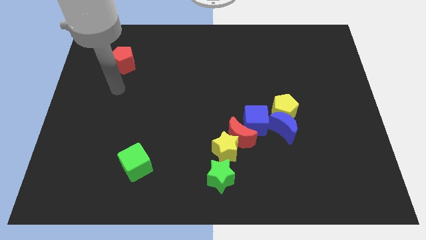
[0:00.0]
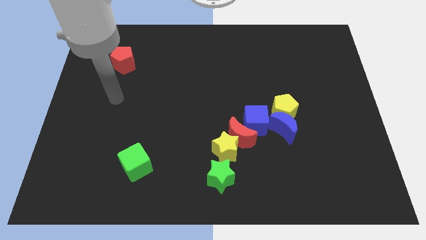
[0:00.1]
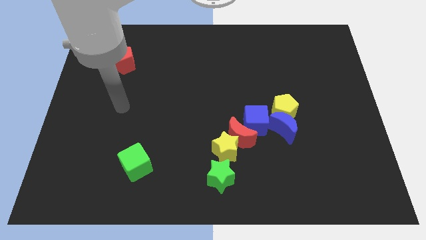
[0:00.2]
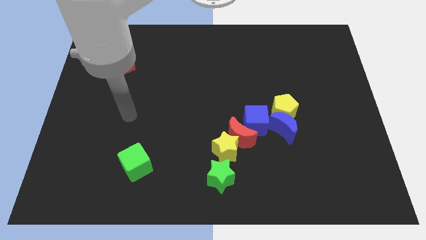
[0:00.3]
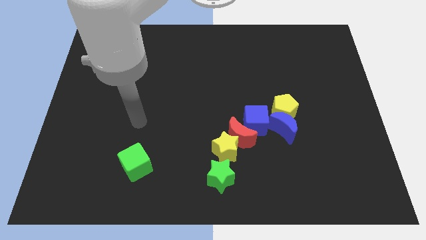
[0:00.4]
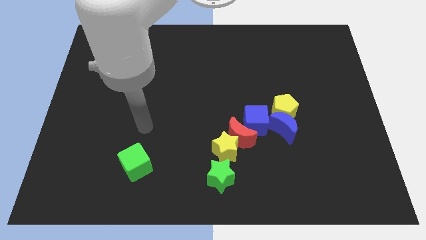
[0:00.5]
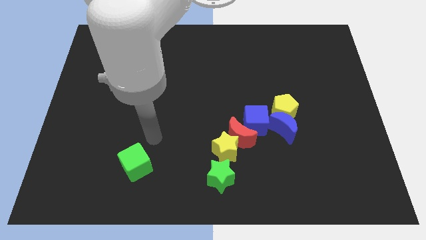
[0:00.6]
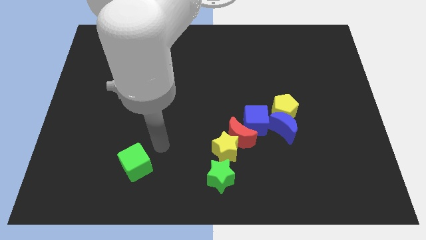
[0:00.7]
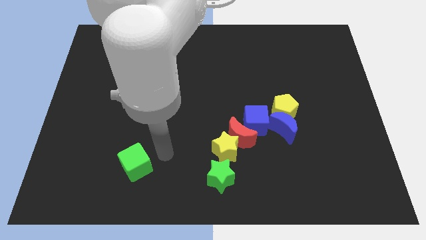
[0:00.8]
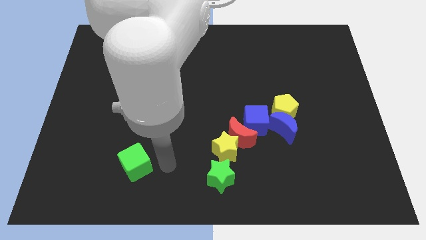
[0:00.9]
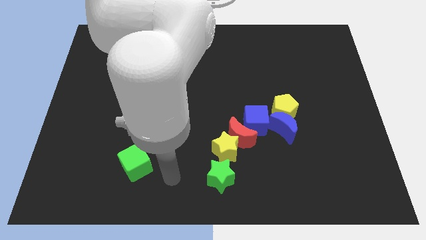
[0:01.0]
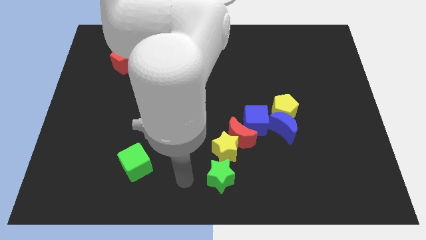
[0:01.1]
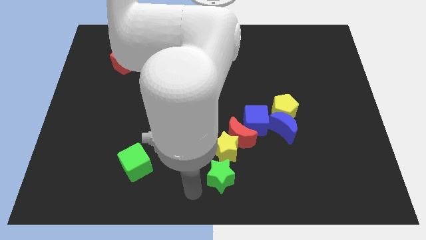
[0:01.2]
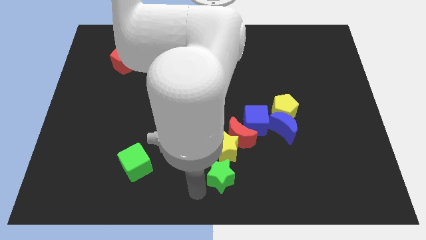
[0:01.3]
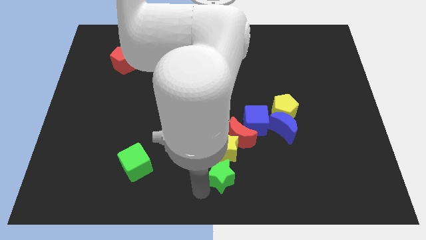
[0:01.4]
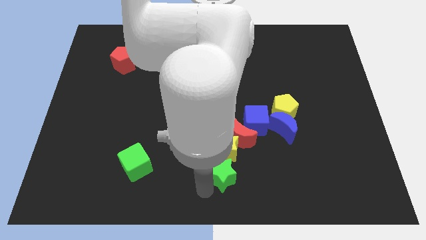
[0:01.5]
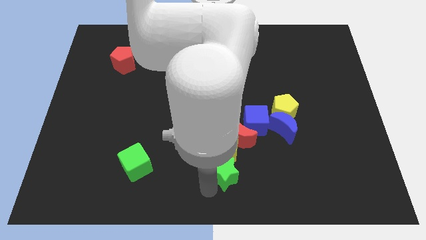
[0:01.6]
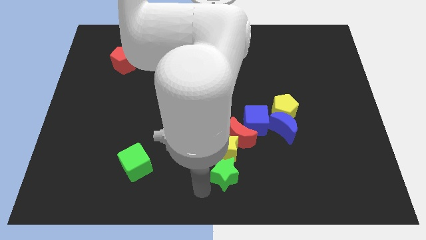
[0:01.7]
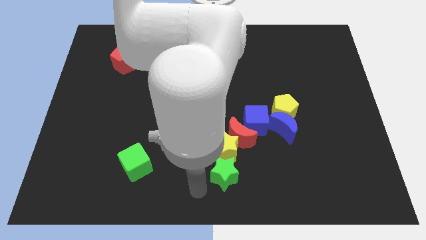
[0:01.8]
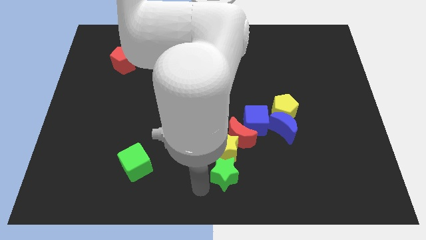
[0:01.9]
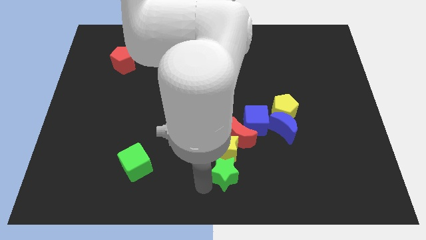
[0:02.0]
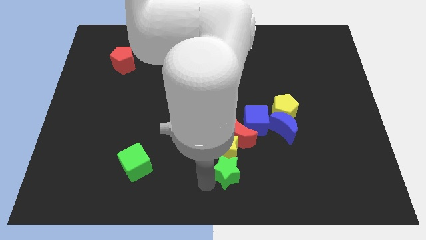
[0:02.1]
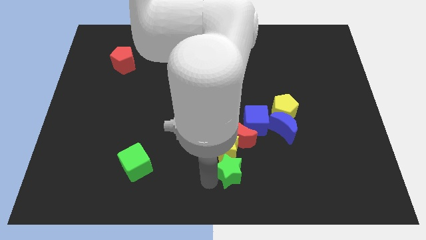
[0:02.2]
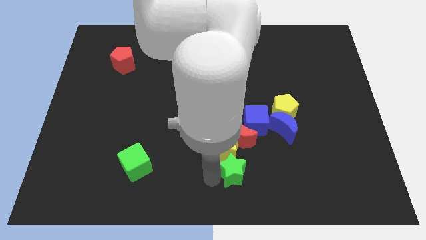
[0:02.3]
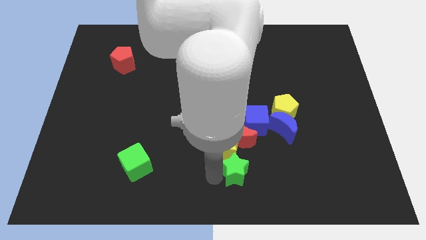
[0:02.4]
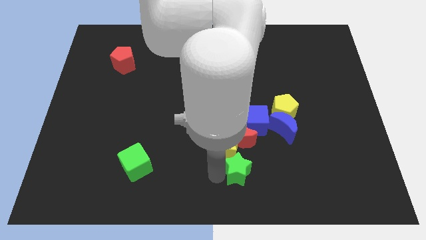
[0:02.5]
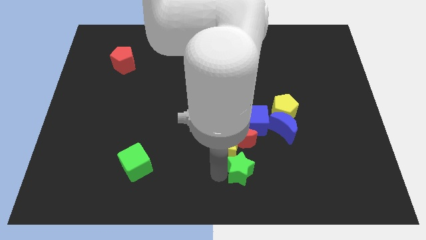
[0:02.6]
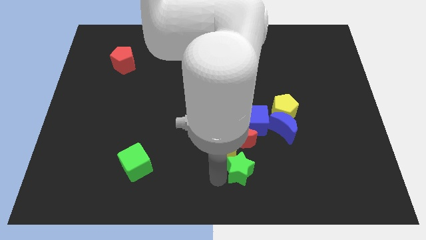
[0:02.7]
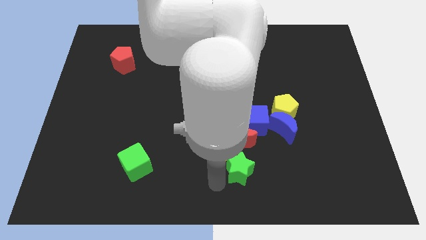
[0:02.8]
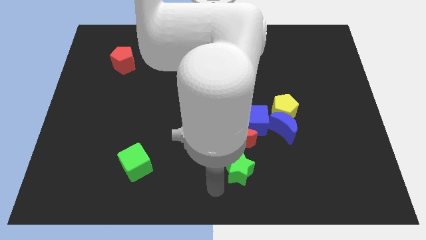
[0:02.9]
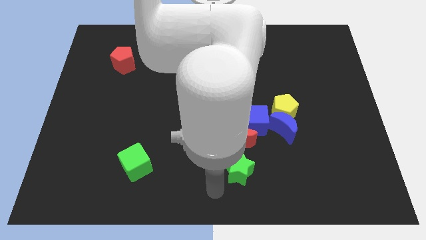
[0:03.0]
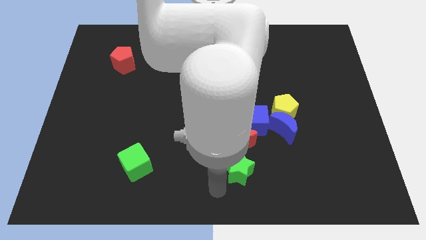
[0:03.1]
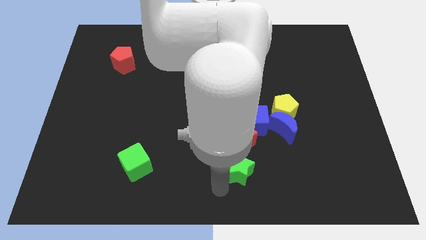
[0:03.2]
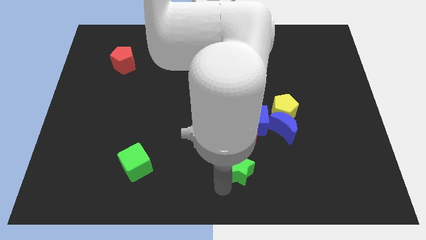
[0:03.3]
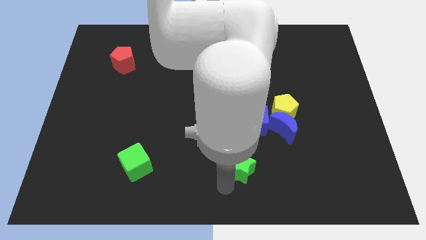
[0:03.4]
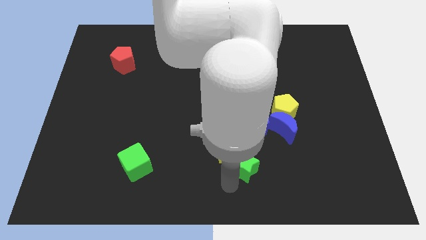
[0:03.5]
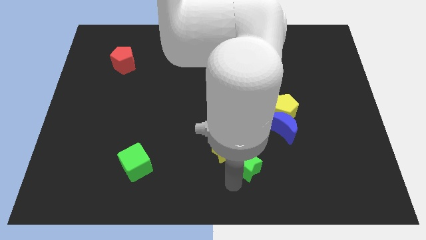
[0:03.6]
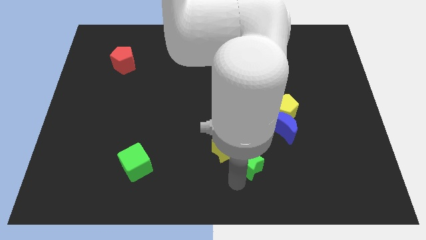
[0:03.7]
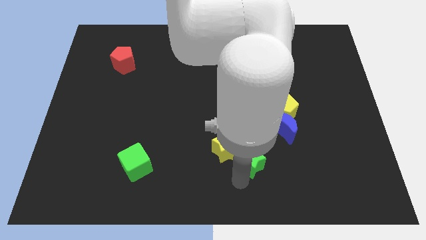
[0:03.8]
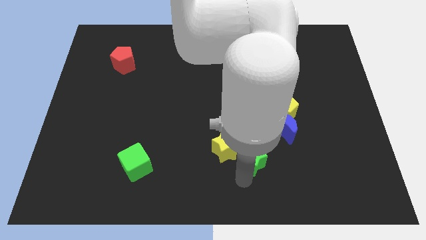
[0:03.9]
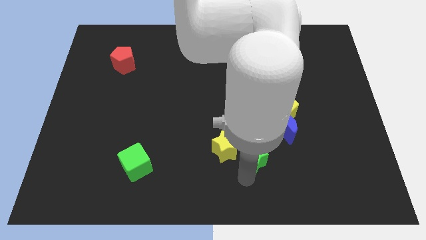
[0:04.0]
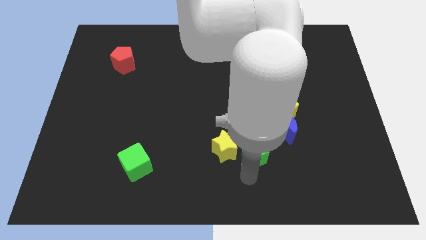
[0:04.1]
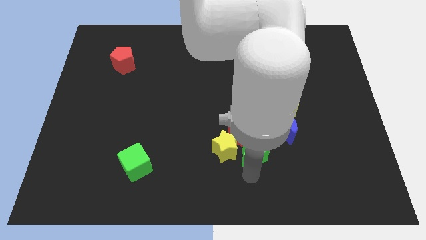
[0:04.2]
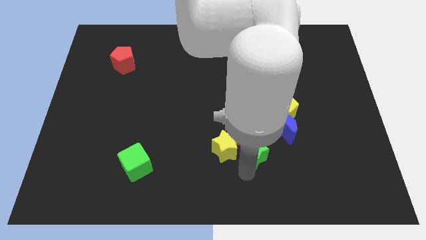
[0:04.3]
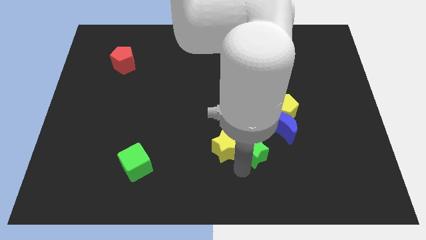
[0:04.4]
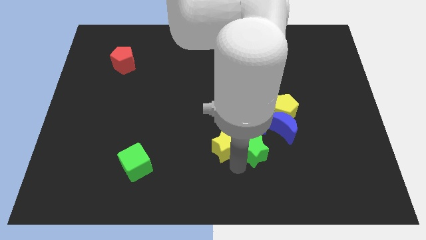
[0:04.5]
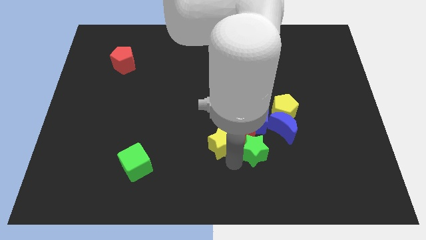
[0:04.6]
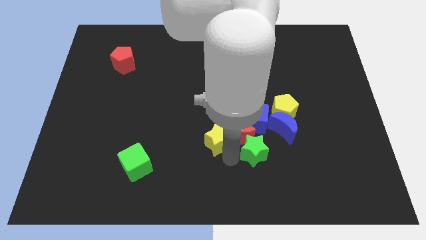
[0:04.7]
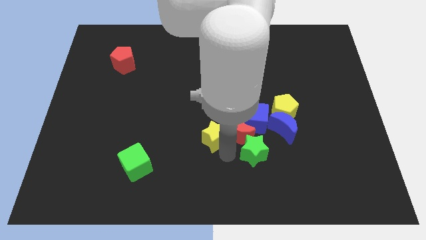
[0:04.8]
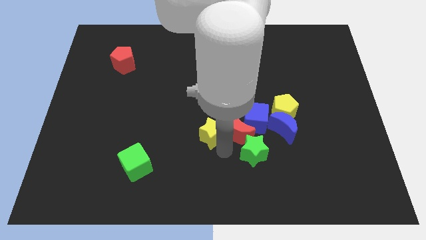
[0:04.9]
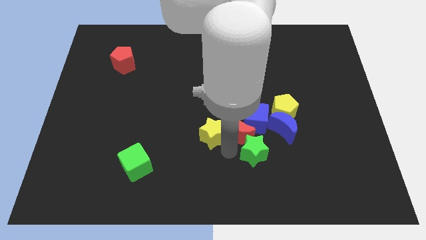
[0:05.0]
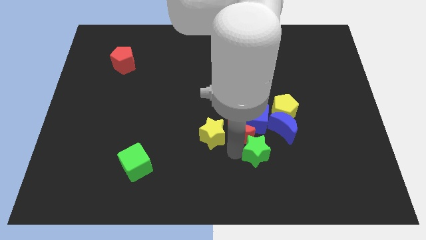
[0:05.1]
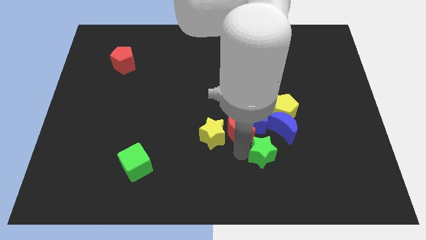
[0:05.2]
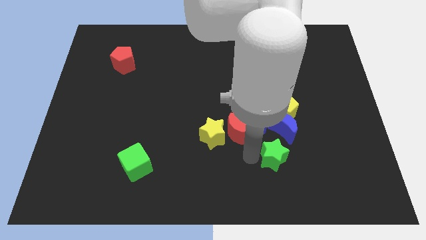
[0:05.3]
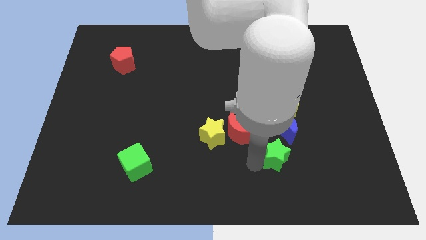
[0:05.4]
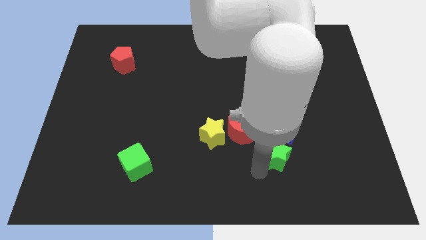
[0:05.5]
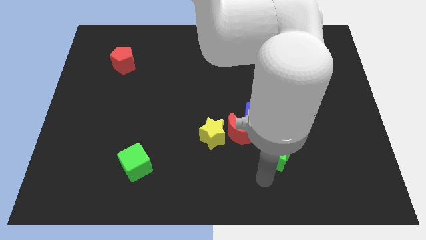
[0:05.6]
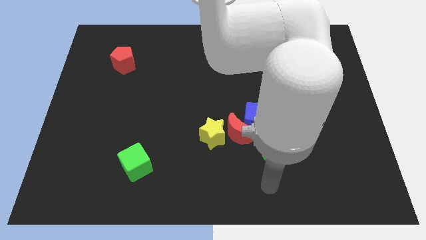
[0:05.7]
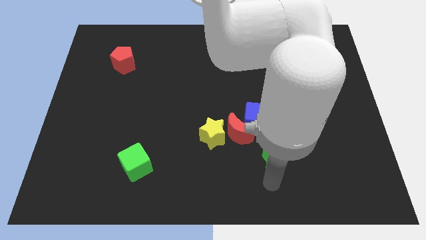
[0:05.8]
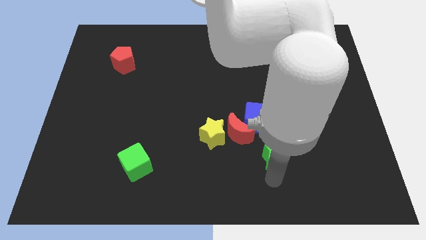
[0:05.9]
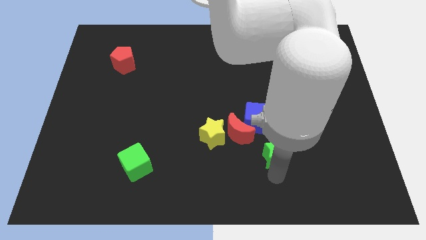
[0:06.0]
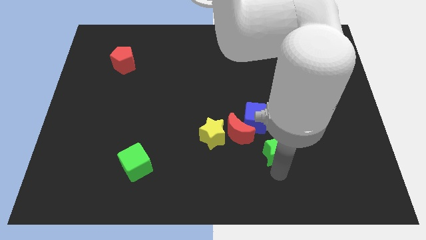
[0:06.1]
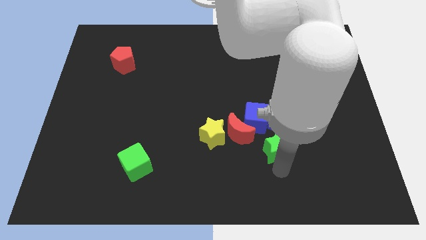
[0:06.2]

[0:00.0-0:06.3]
push the green star next to the blue moon

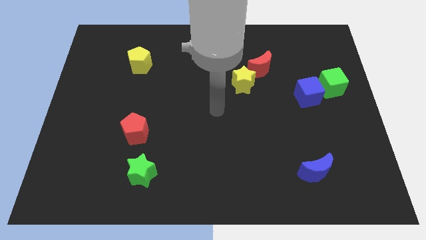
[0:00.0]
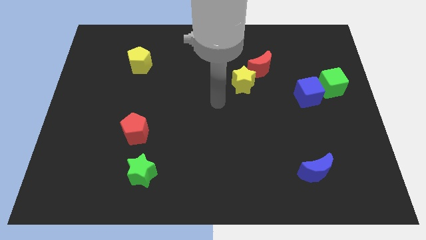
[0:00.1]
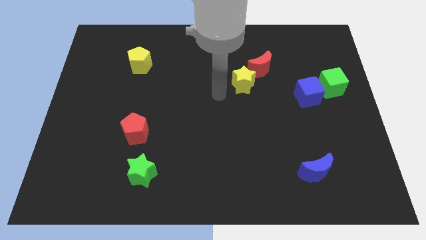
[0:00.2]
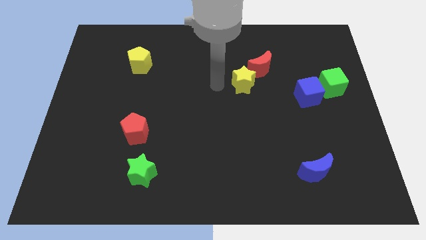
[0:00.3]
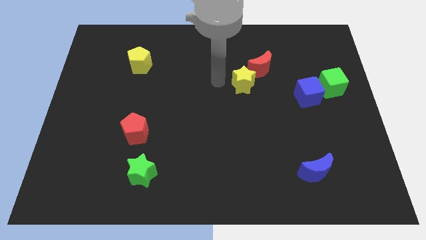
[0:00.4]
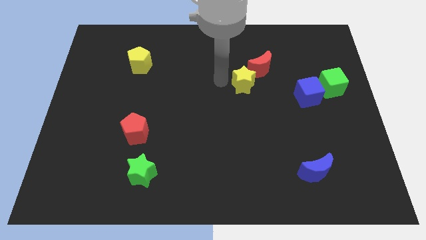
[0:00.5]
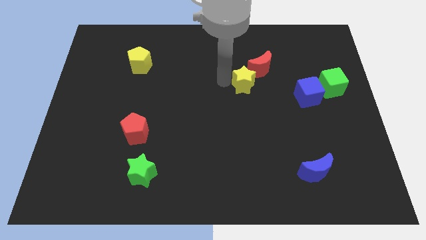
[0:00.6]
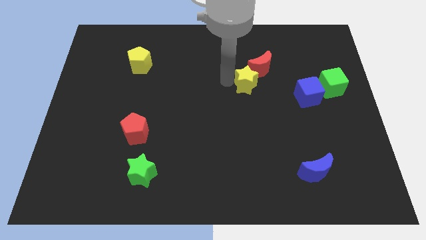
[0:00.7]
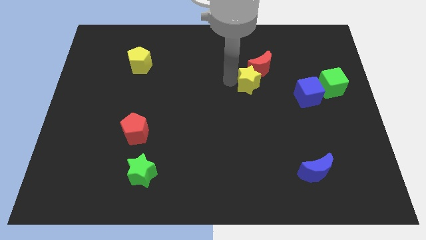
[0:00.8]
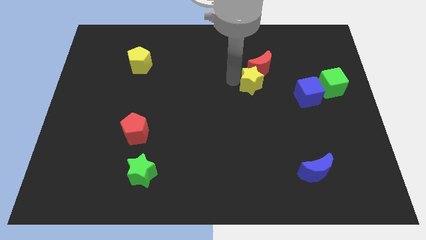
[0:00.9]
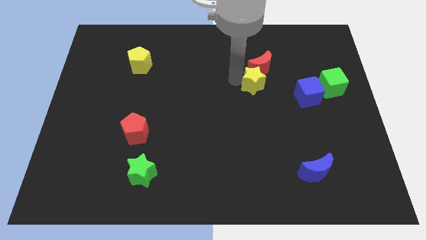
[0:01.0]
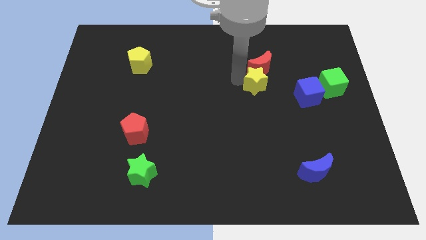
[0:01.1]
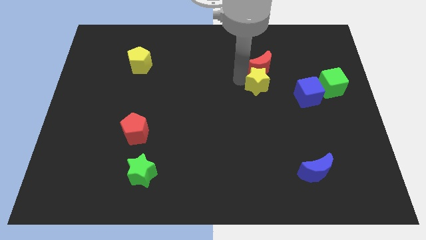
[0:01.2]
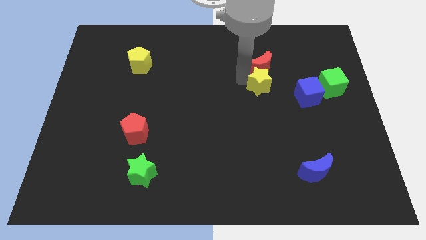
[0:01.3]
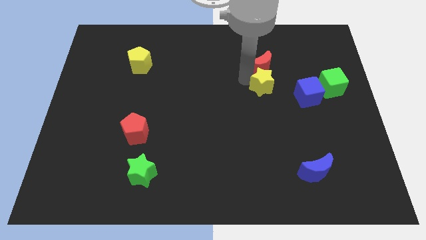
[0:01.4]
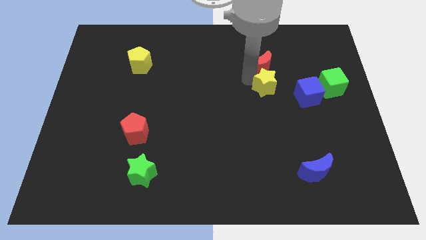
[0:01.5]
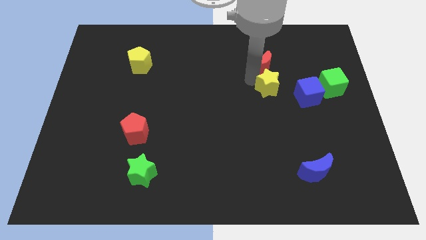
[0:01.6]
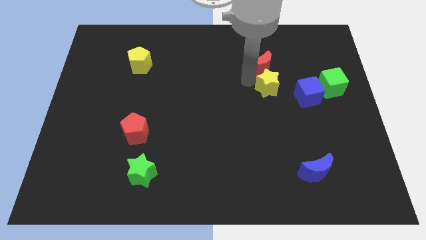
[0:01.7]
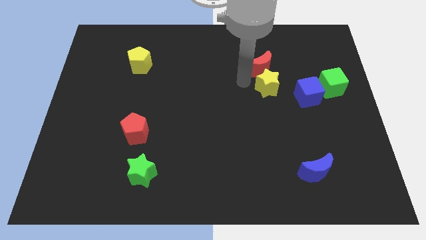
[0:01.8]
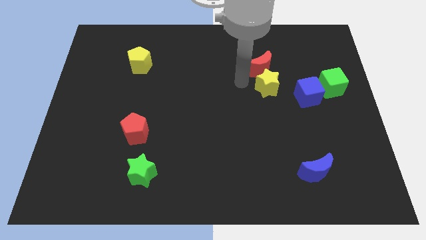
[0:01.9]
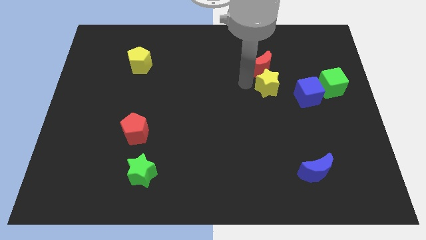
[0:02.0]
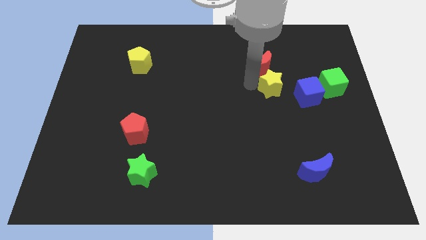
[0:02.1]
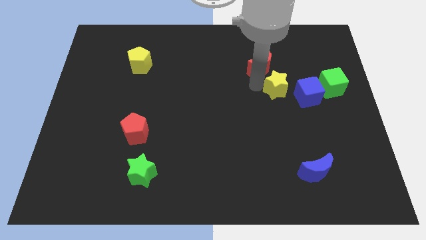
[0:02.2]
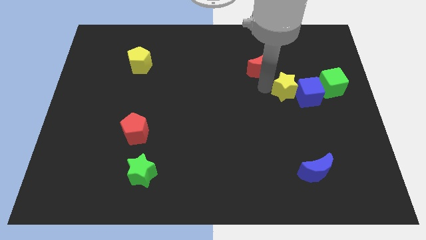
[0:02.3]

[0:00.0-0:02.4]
push the yellow star next to the blue cube
